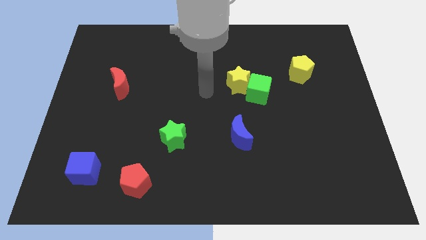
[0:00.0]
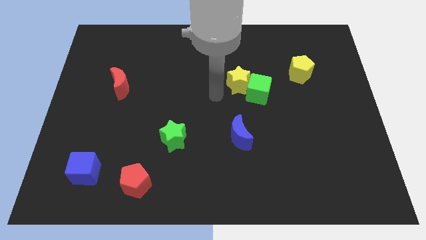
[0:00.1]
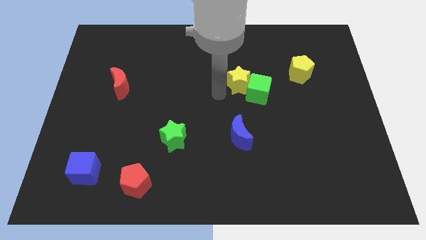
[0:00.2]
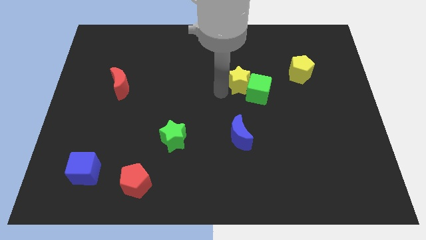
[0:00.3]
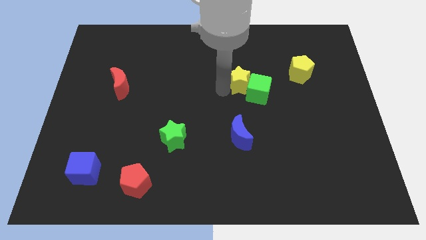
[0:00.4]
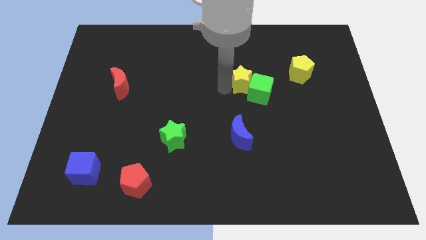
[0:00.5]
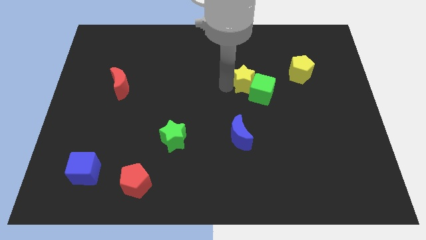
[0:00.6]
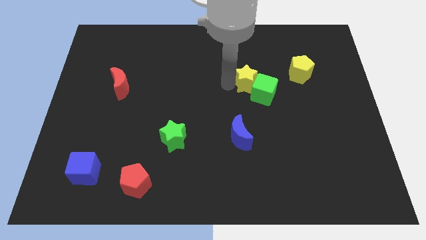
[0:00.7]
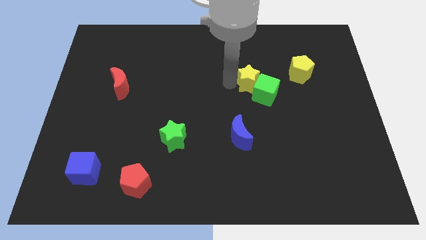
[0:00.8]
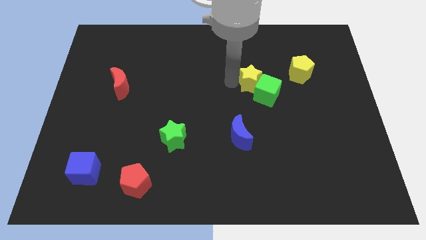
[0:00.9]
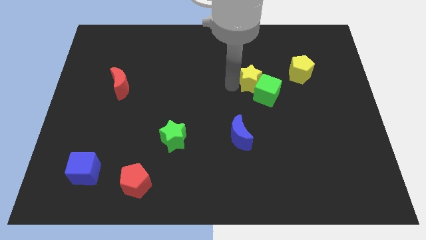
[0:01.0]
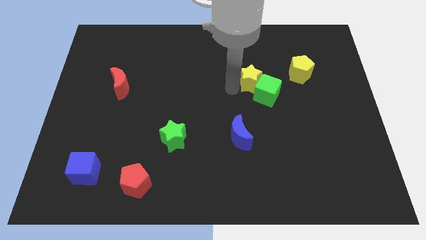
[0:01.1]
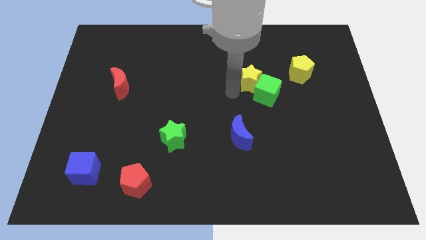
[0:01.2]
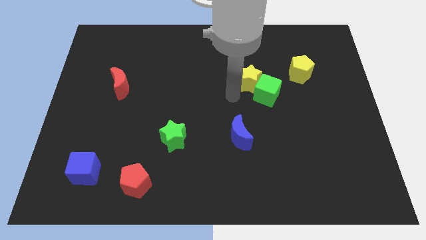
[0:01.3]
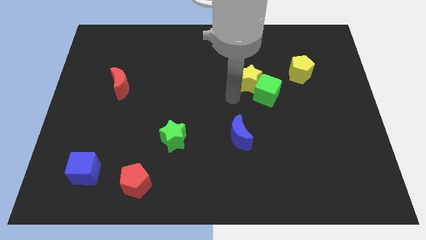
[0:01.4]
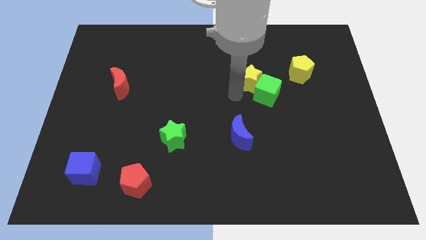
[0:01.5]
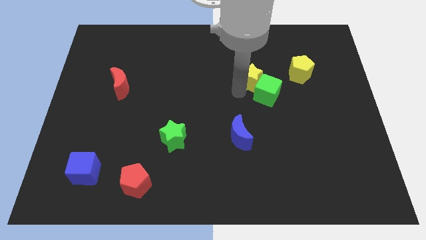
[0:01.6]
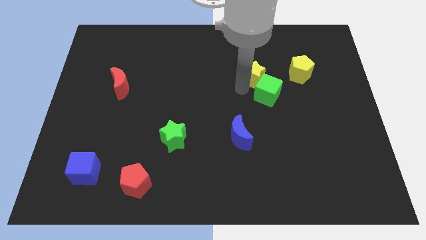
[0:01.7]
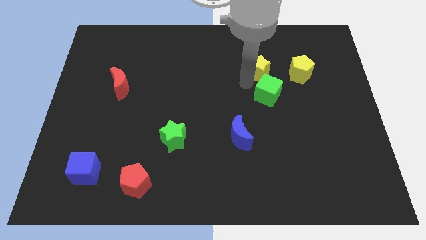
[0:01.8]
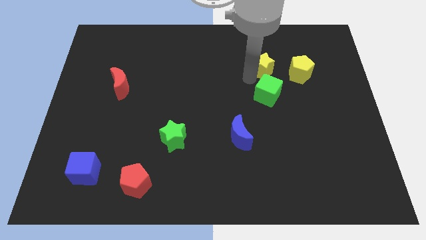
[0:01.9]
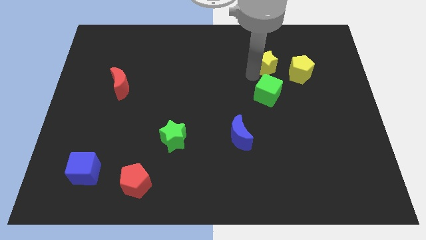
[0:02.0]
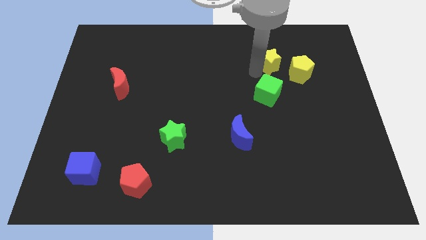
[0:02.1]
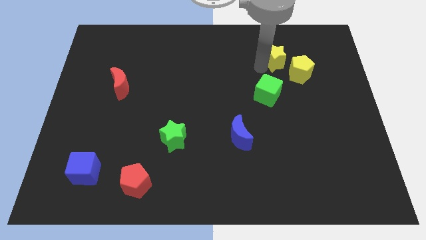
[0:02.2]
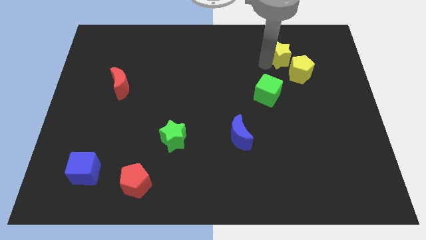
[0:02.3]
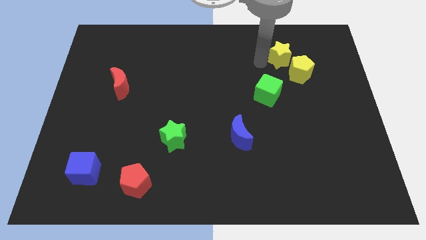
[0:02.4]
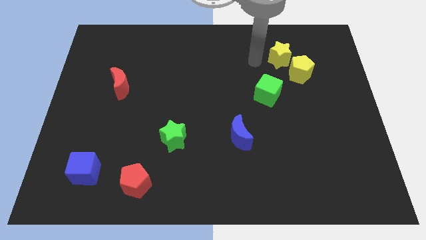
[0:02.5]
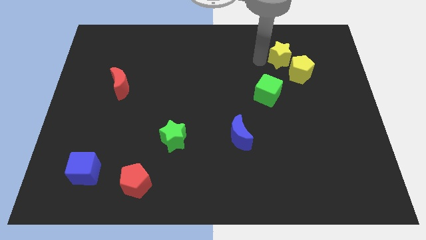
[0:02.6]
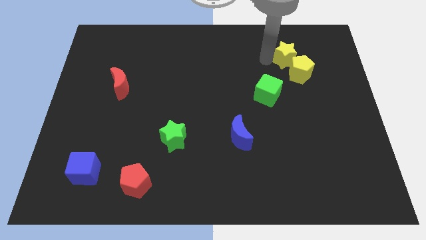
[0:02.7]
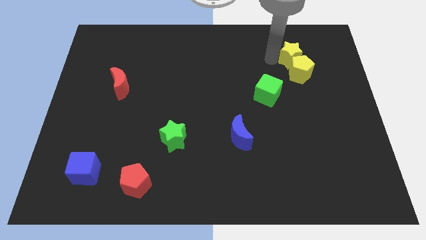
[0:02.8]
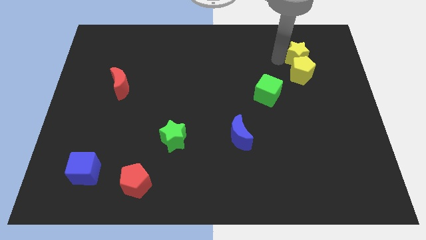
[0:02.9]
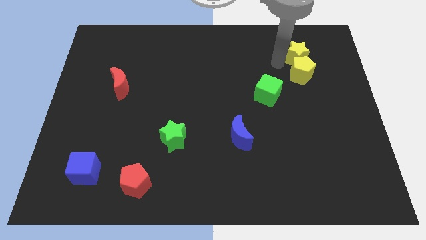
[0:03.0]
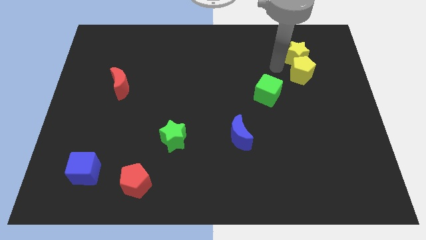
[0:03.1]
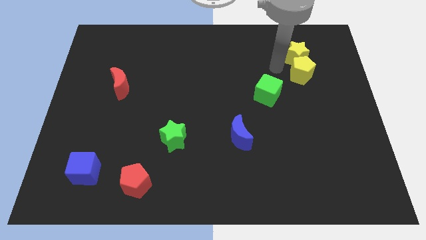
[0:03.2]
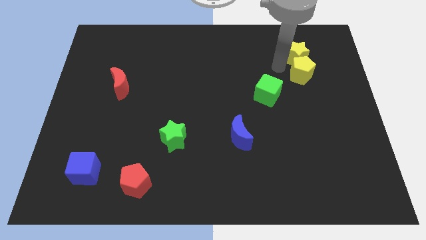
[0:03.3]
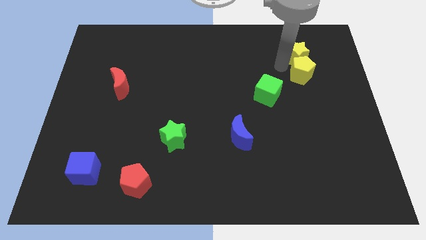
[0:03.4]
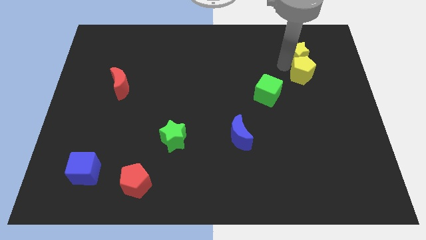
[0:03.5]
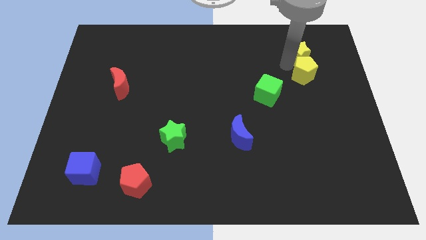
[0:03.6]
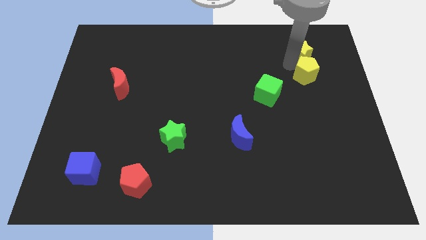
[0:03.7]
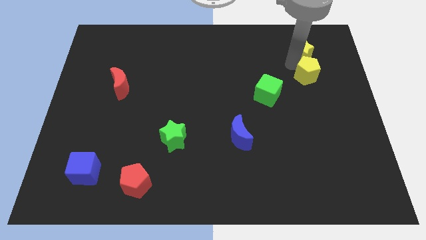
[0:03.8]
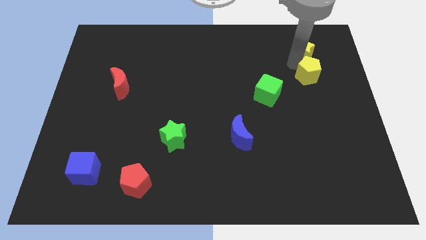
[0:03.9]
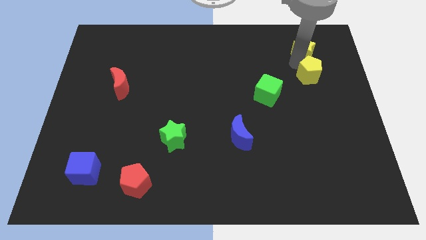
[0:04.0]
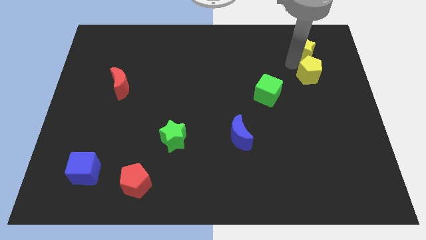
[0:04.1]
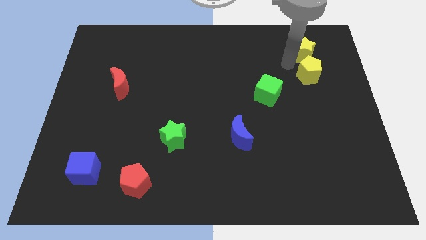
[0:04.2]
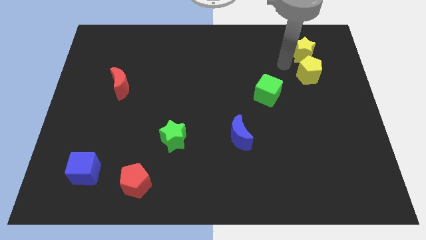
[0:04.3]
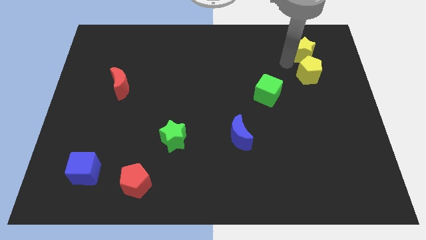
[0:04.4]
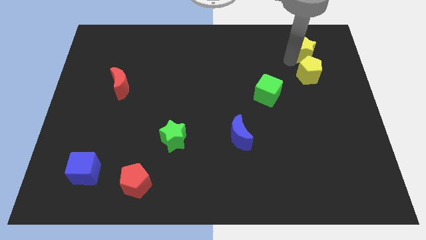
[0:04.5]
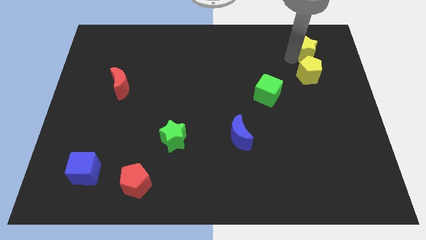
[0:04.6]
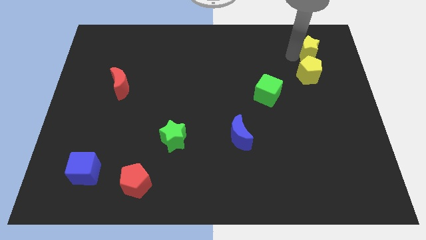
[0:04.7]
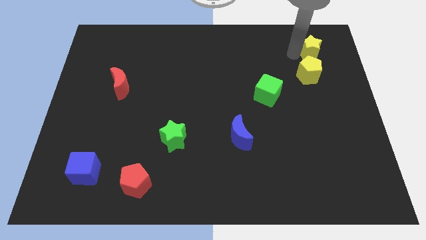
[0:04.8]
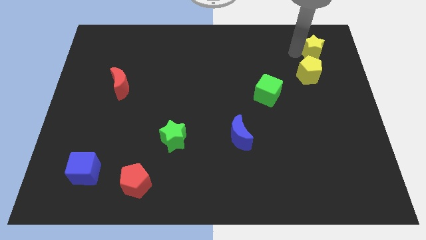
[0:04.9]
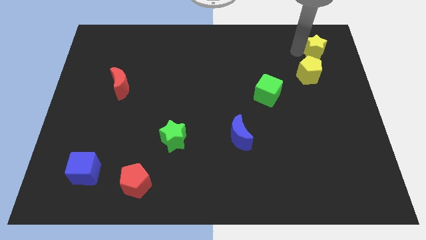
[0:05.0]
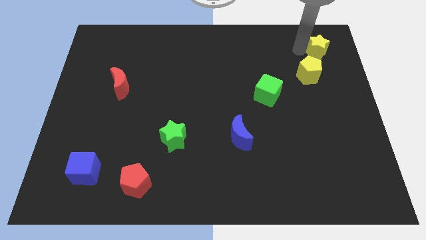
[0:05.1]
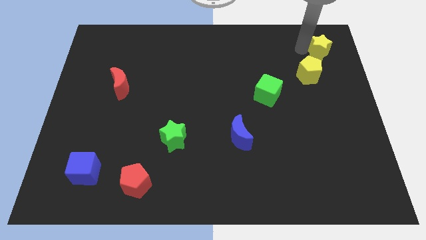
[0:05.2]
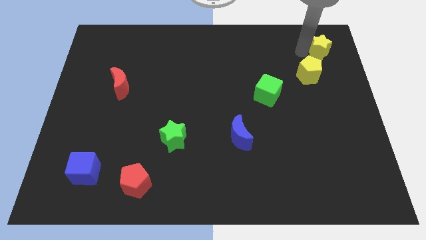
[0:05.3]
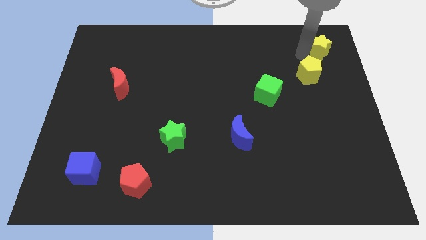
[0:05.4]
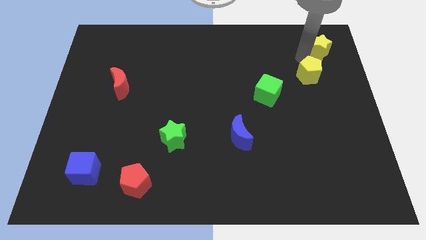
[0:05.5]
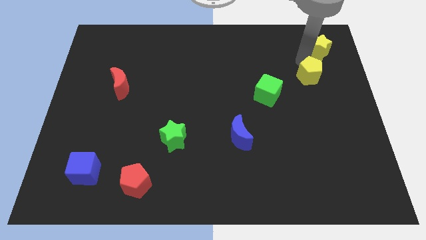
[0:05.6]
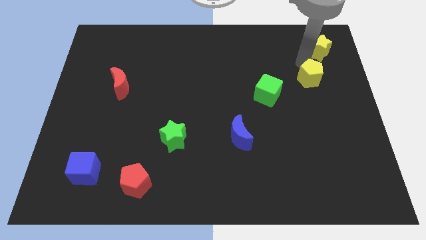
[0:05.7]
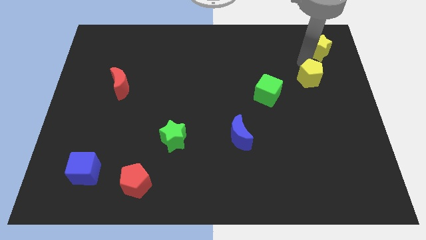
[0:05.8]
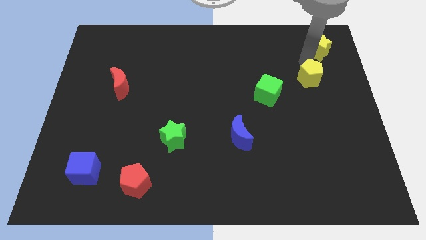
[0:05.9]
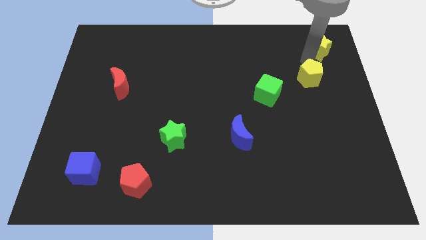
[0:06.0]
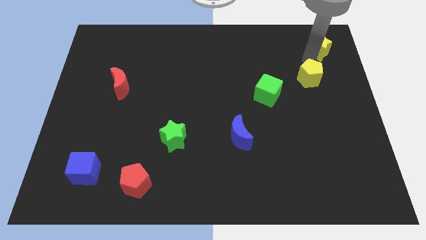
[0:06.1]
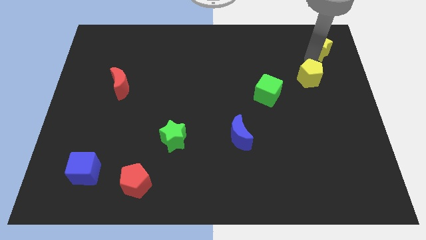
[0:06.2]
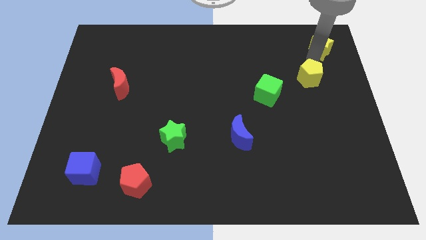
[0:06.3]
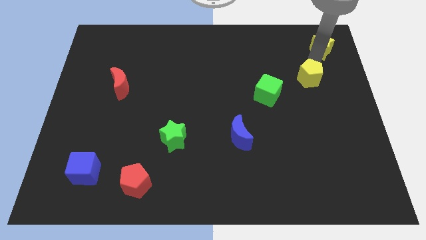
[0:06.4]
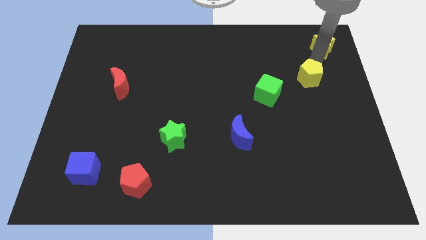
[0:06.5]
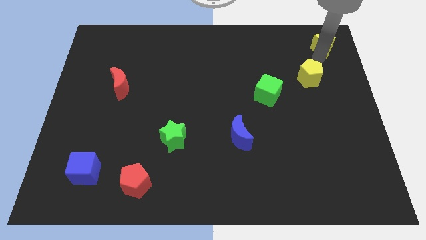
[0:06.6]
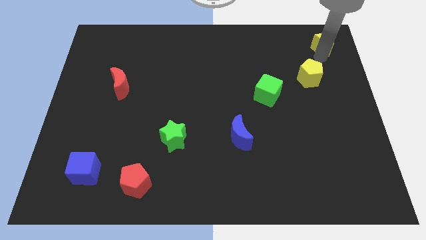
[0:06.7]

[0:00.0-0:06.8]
move the yellow star to the top right
